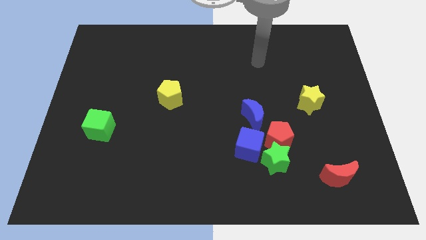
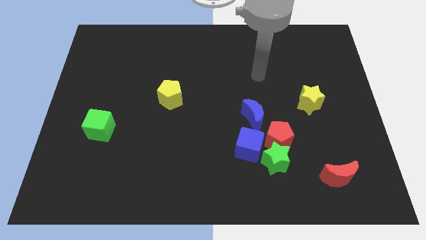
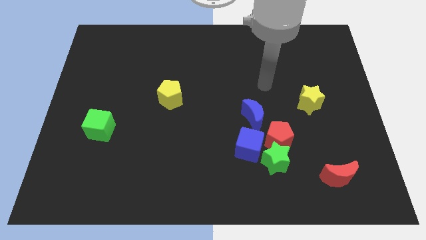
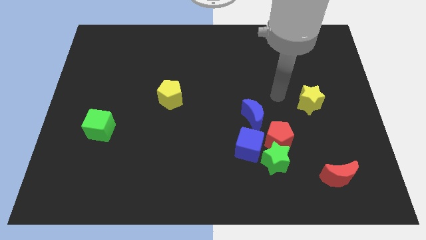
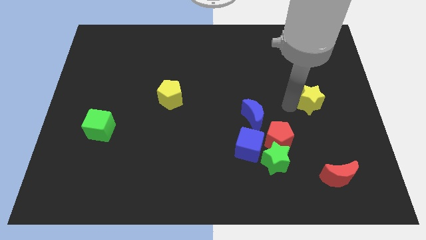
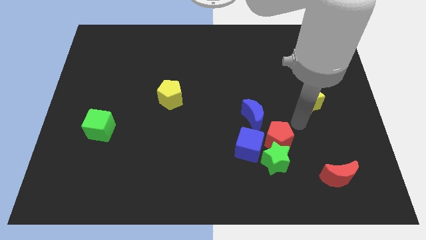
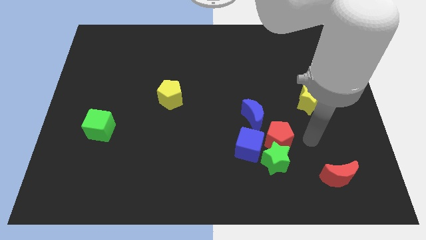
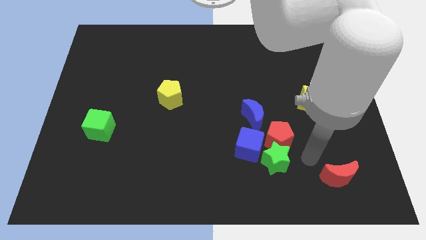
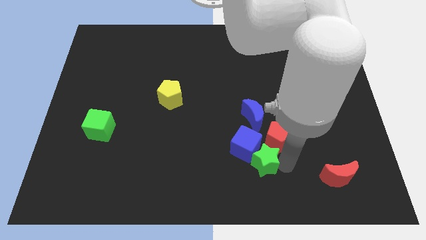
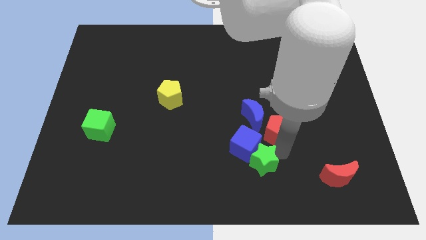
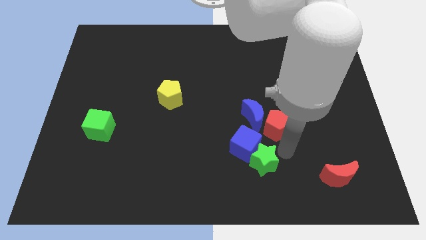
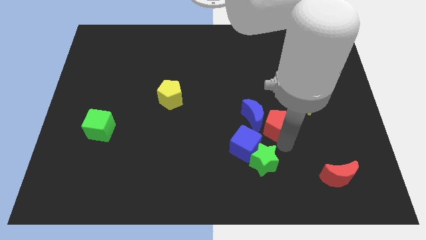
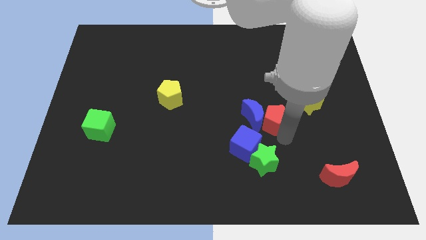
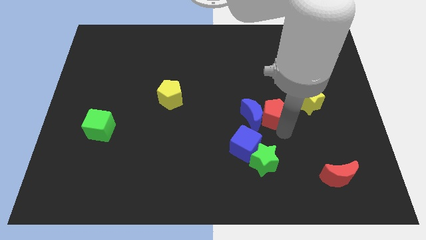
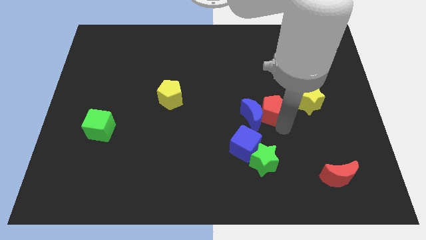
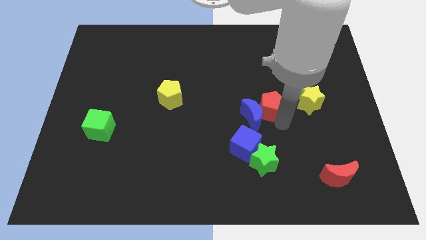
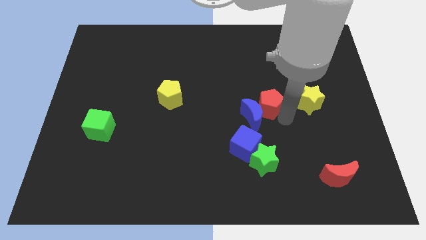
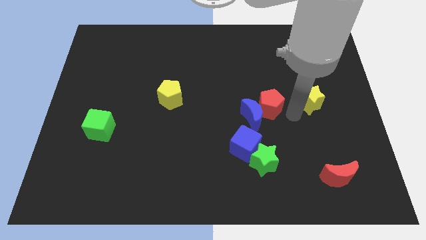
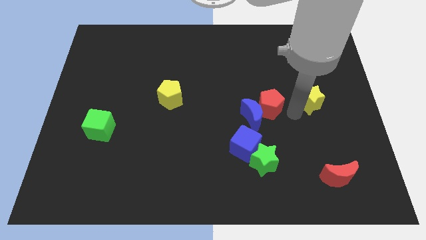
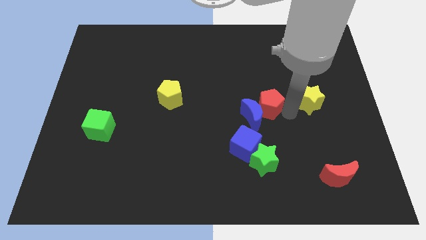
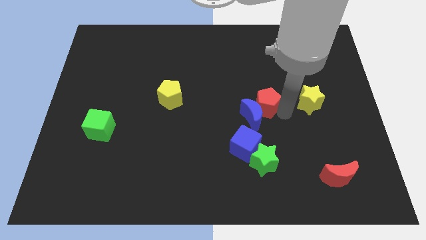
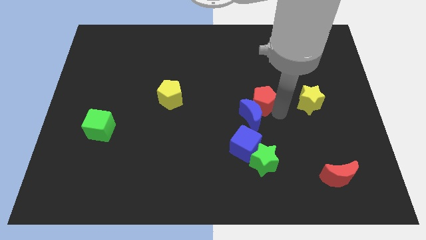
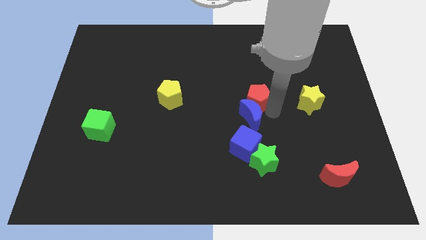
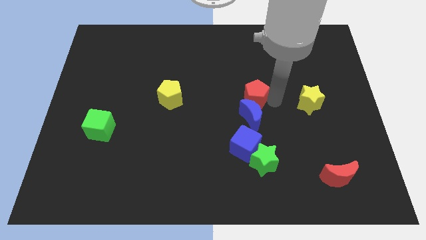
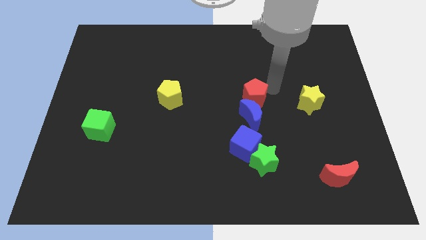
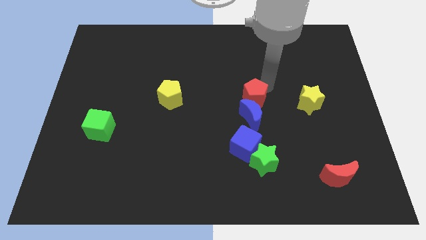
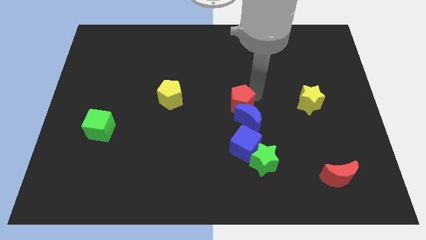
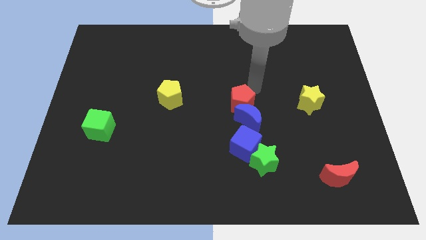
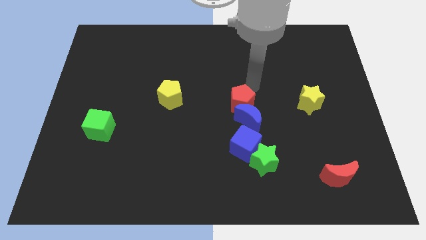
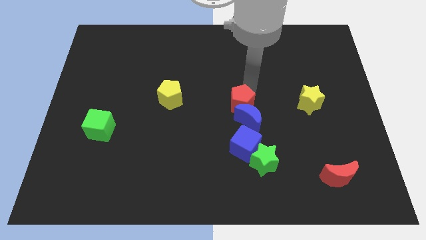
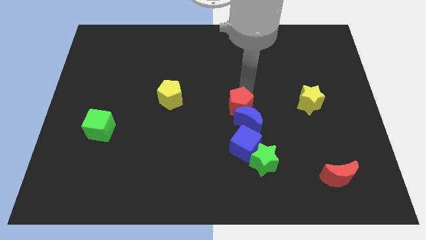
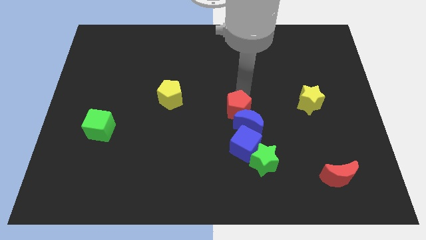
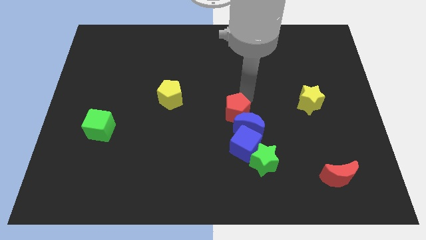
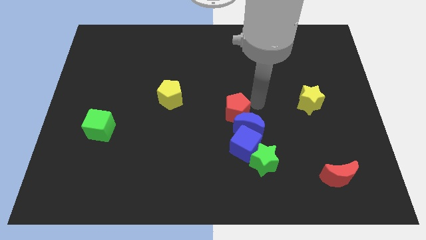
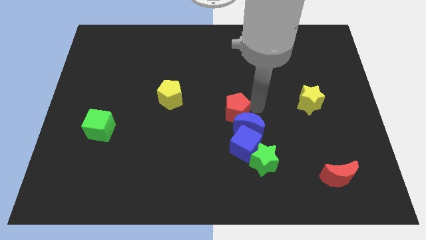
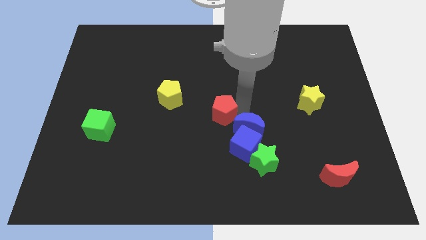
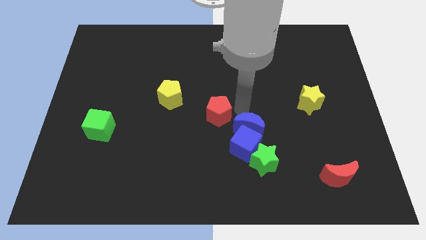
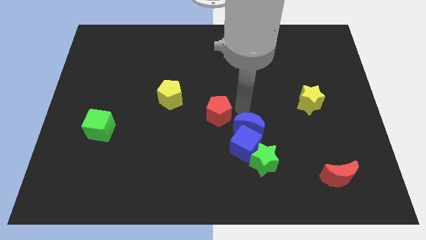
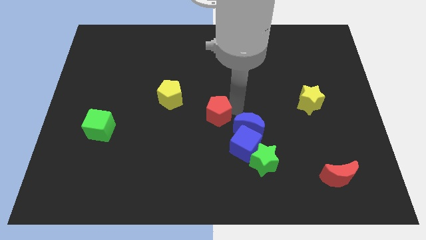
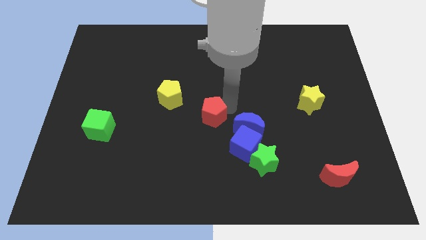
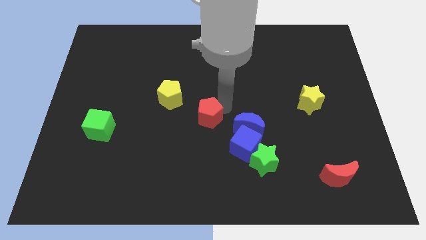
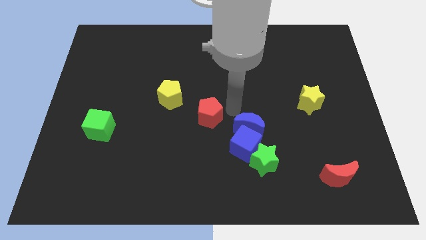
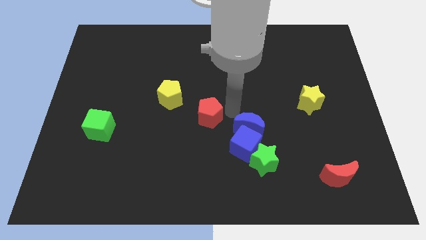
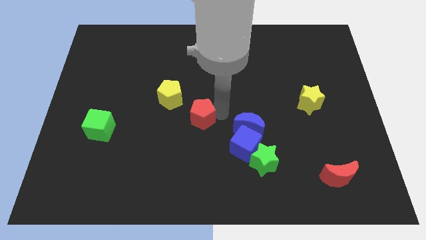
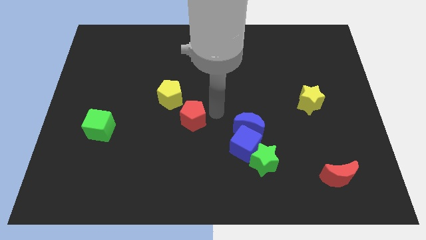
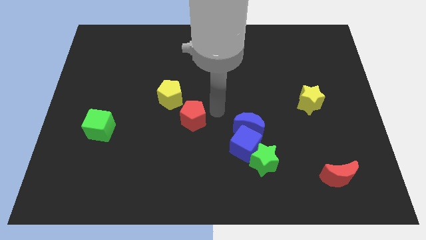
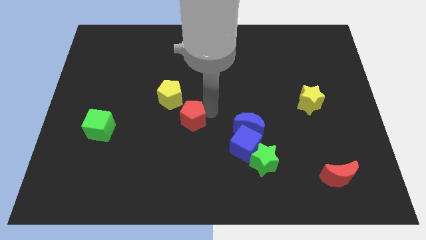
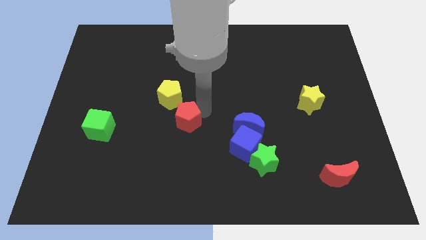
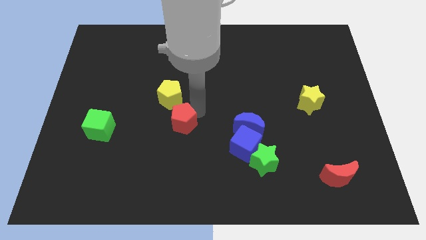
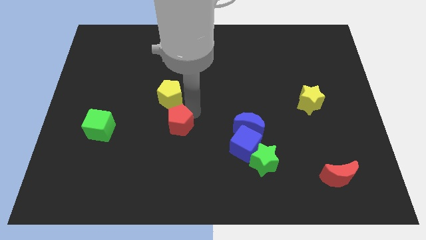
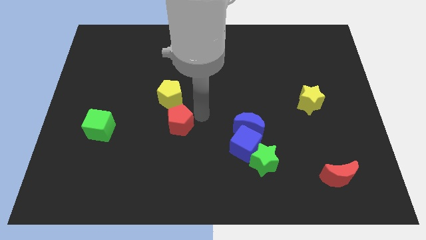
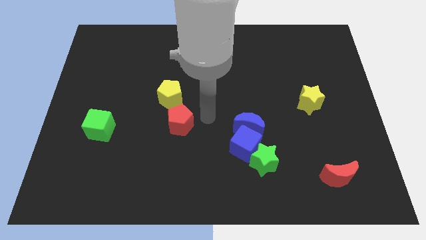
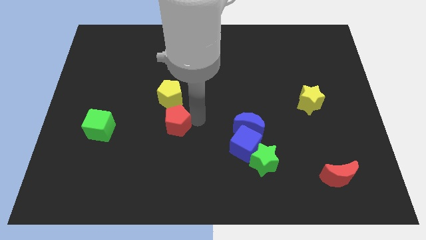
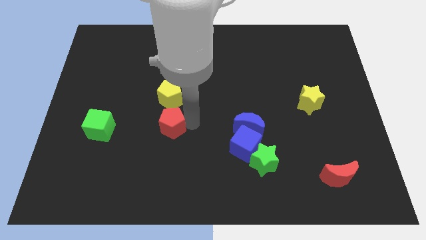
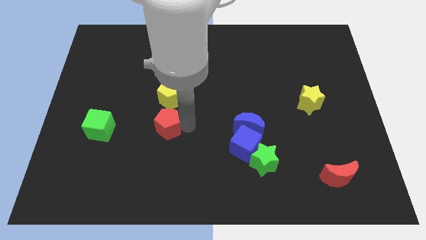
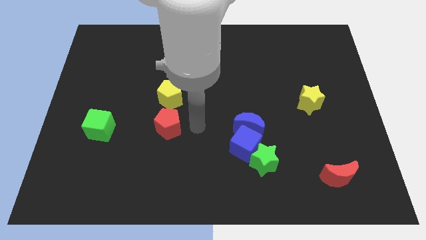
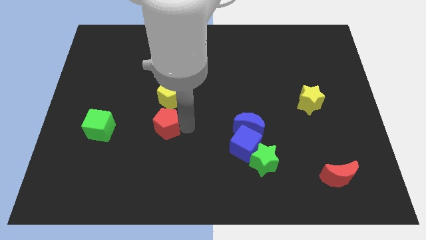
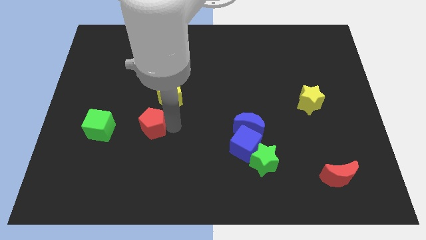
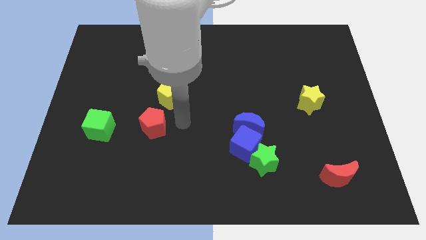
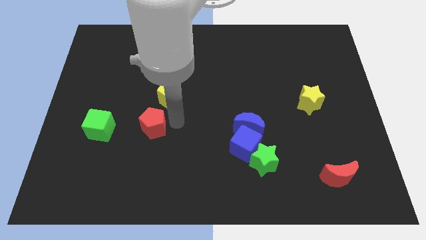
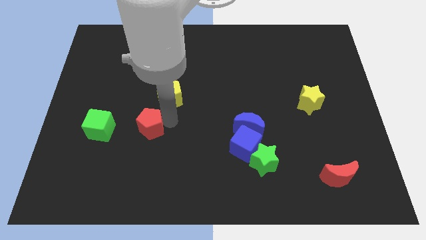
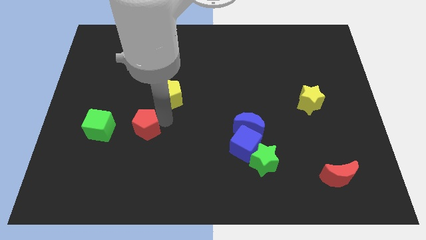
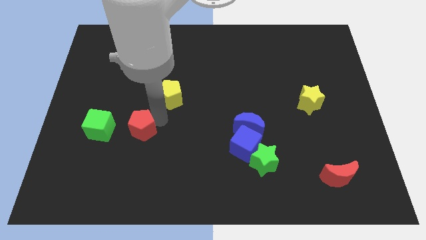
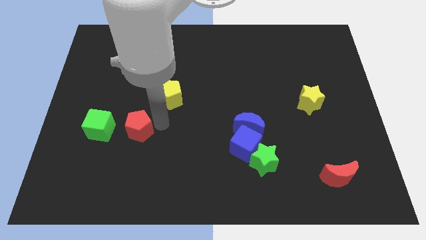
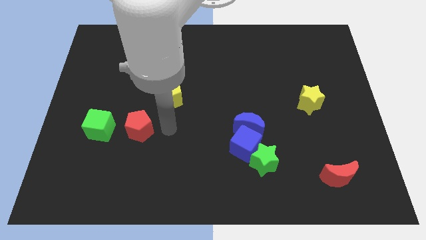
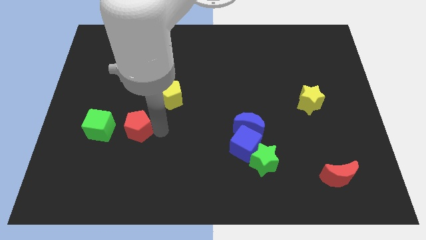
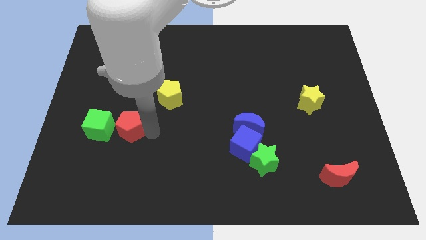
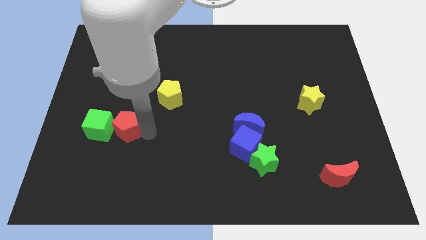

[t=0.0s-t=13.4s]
put the red pentagon next to the green cube

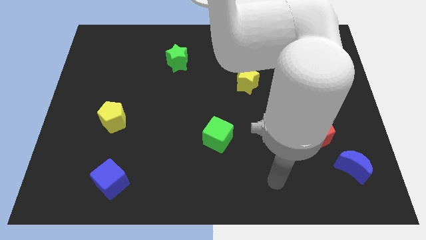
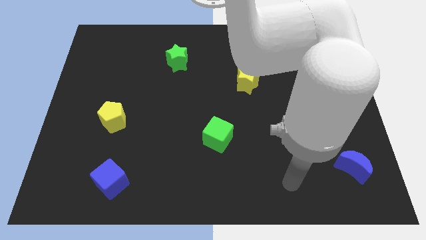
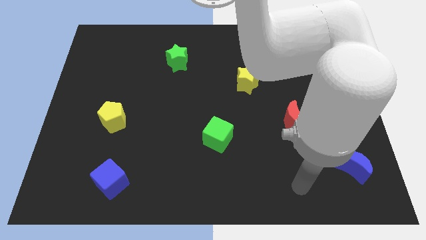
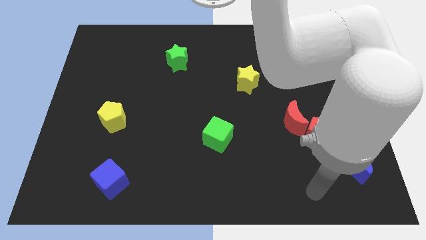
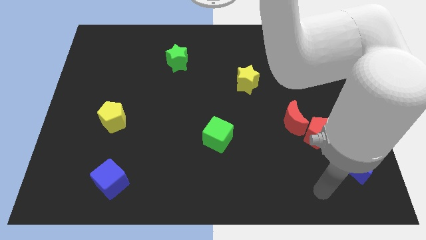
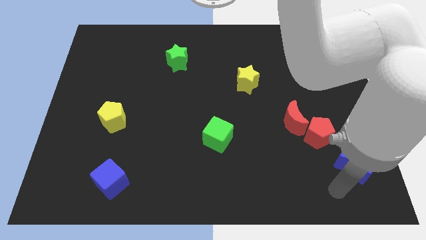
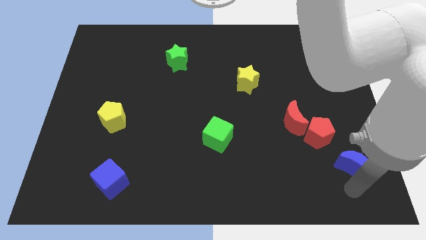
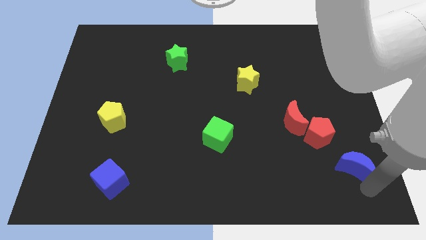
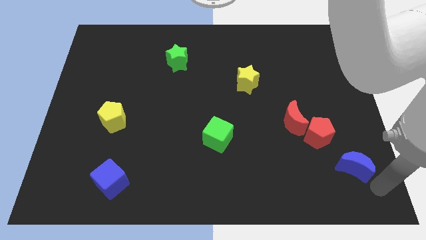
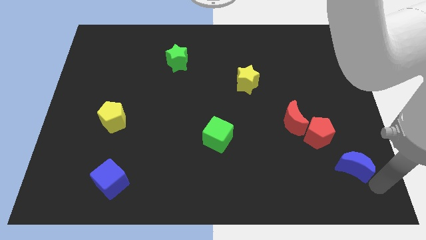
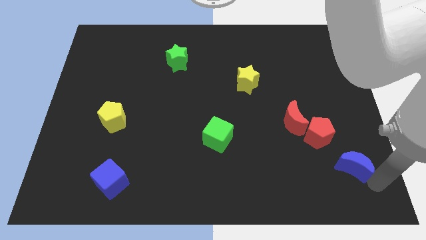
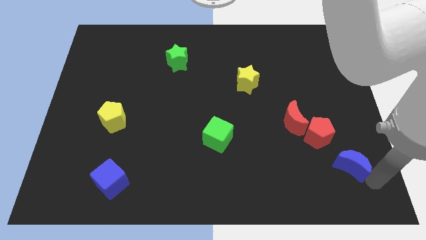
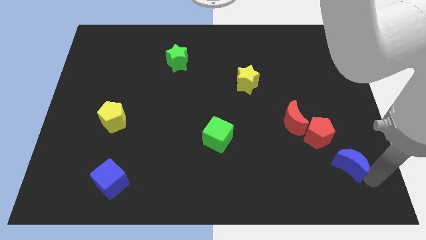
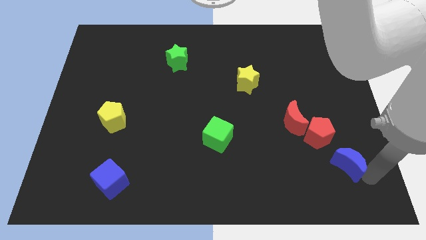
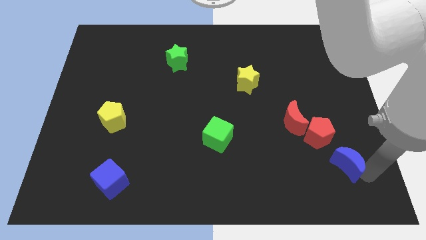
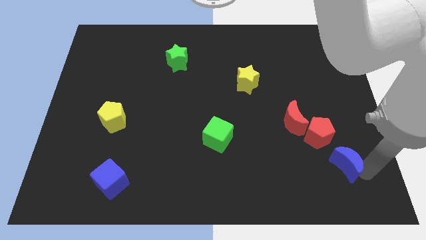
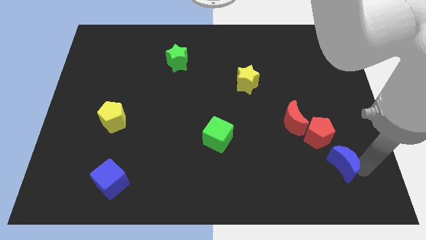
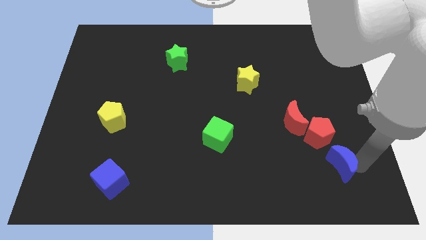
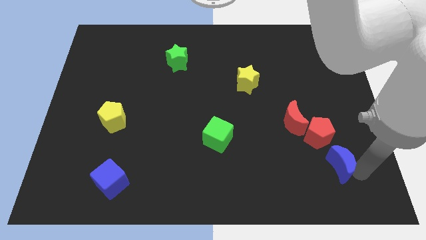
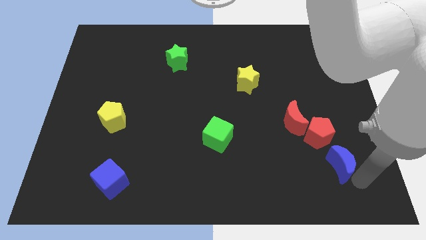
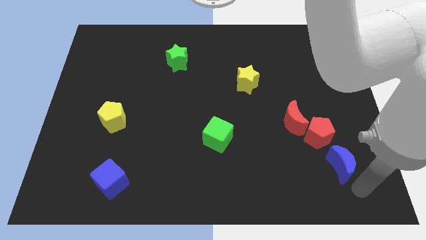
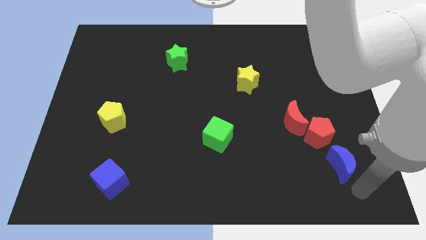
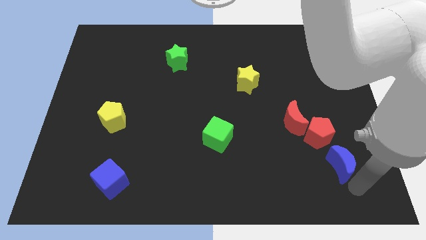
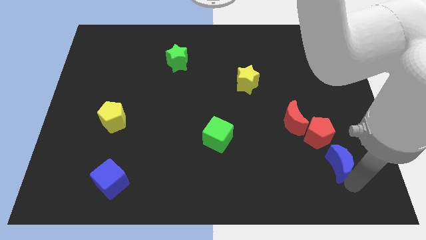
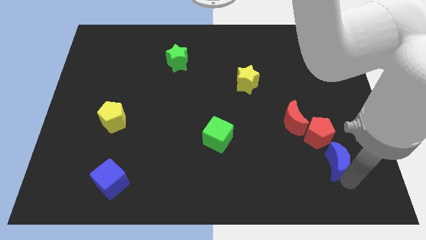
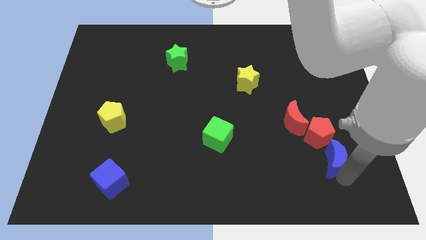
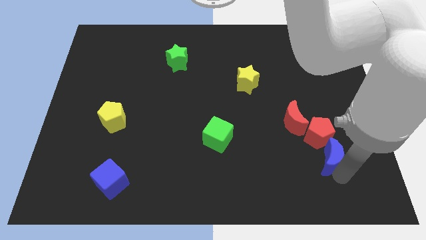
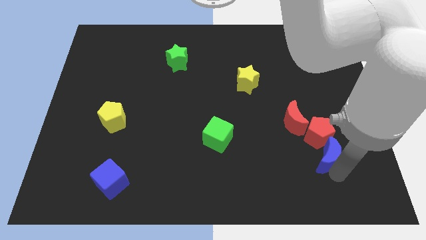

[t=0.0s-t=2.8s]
put the blue moon towards the red pentagon
